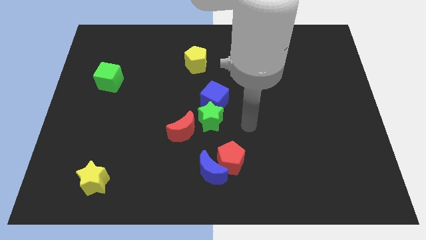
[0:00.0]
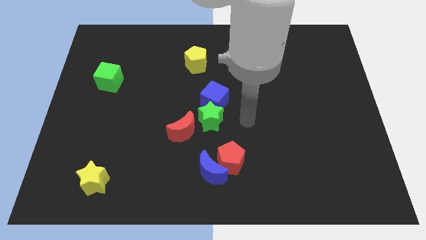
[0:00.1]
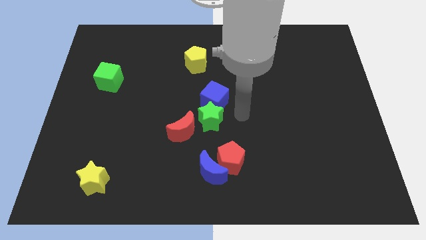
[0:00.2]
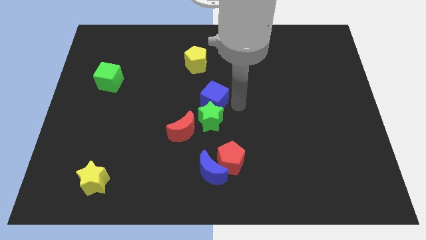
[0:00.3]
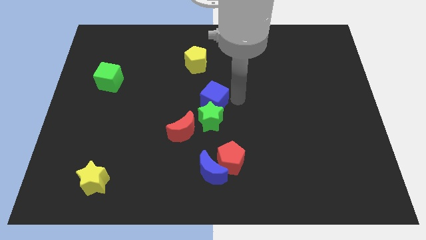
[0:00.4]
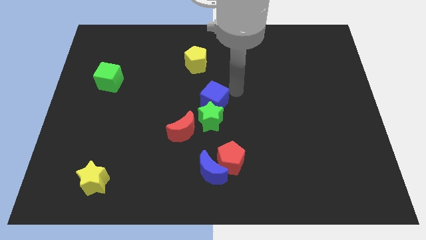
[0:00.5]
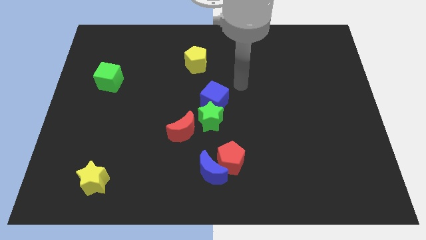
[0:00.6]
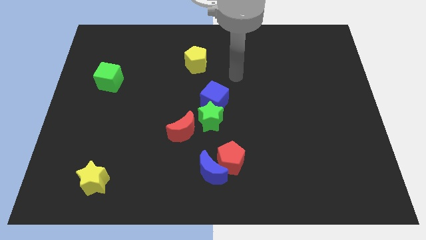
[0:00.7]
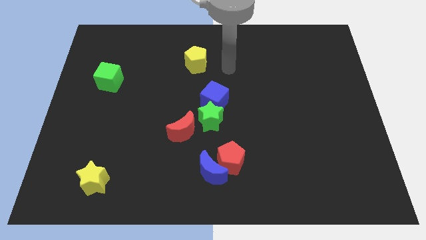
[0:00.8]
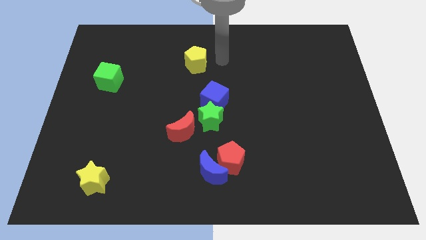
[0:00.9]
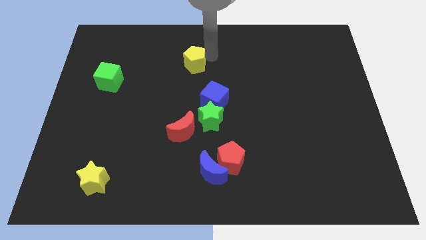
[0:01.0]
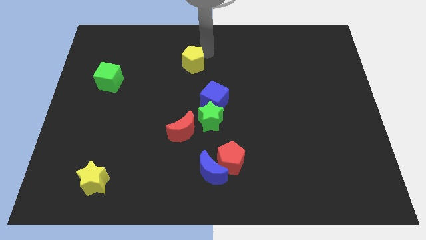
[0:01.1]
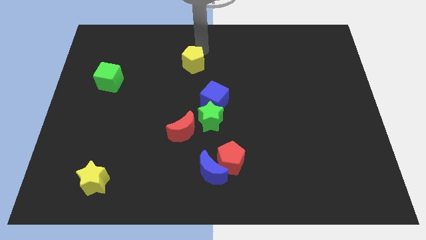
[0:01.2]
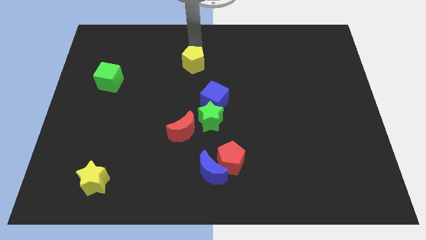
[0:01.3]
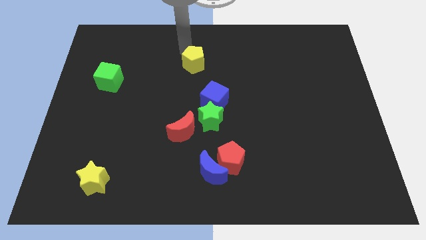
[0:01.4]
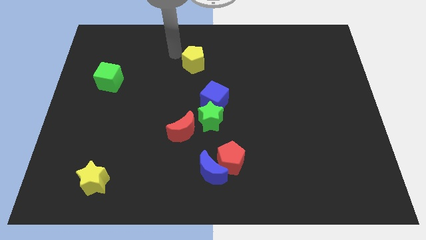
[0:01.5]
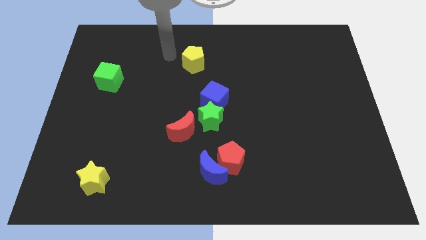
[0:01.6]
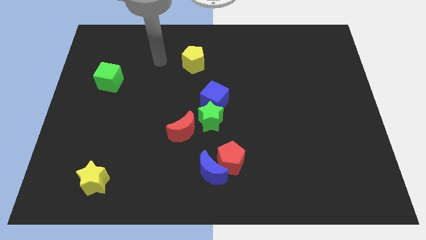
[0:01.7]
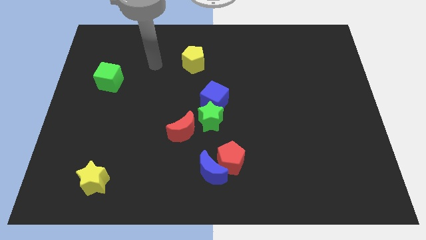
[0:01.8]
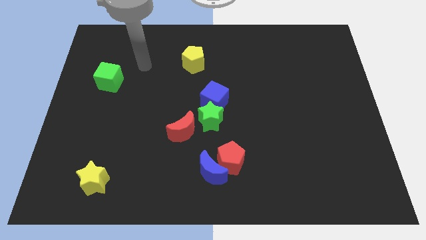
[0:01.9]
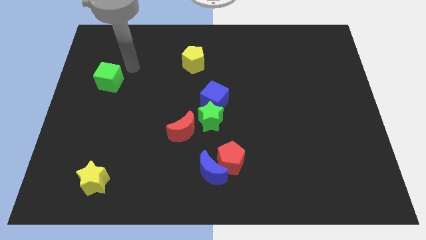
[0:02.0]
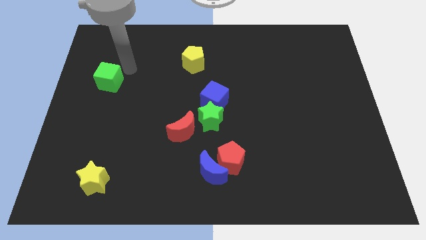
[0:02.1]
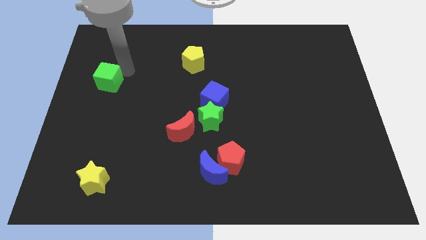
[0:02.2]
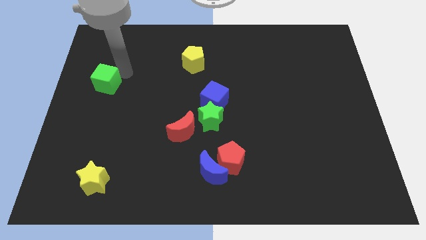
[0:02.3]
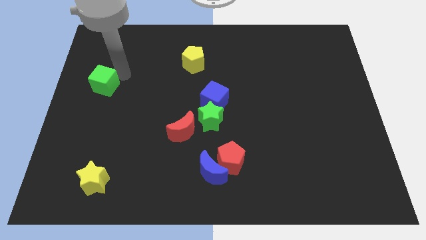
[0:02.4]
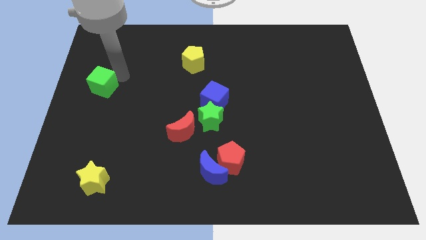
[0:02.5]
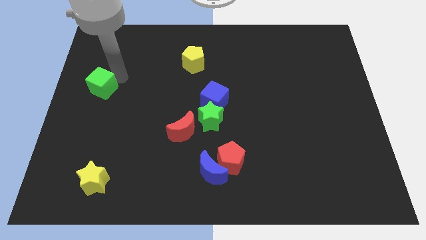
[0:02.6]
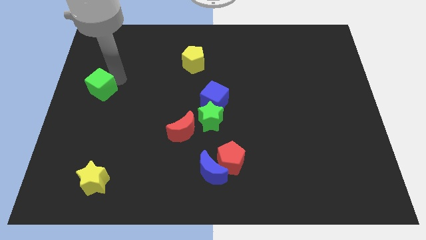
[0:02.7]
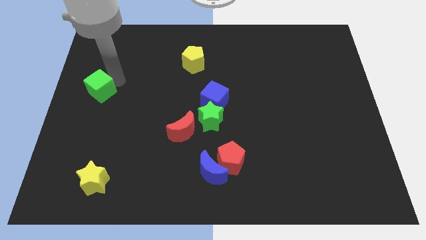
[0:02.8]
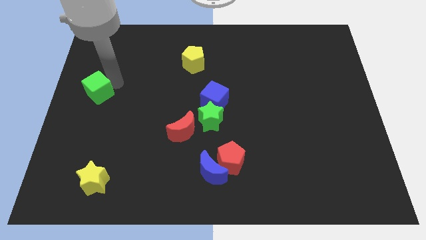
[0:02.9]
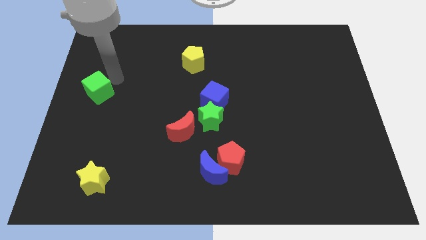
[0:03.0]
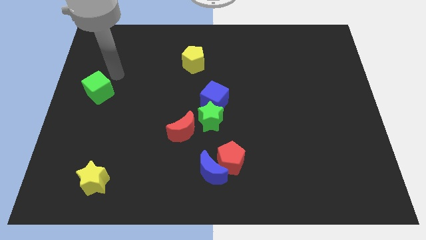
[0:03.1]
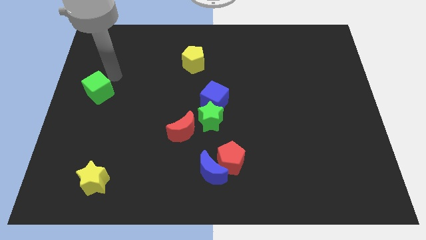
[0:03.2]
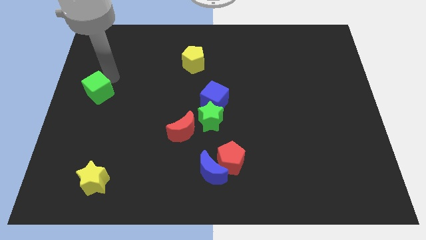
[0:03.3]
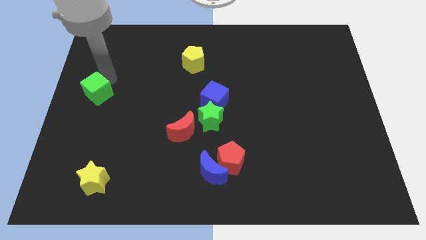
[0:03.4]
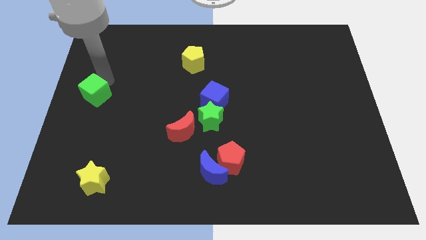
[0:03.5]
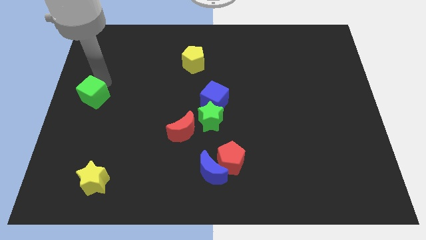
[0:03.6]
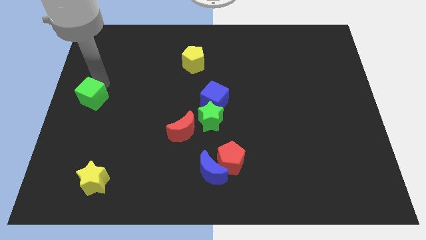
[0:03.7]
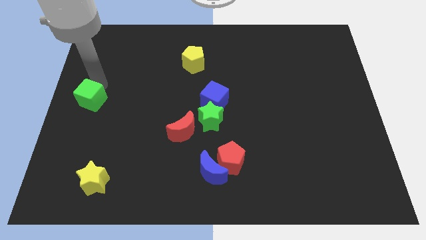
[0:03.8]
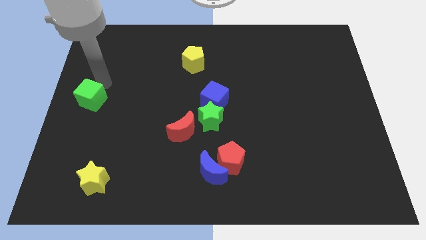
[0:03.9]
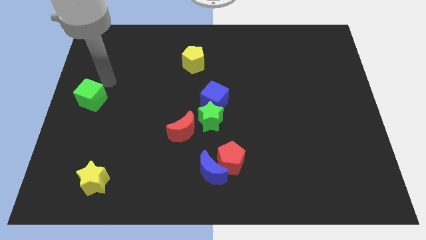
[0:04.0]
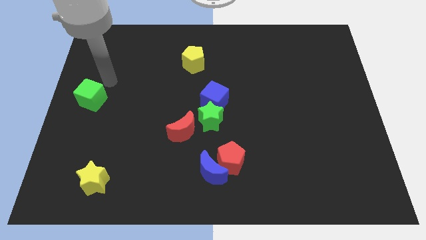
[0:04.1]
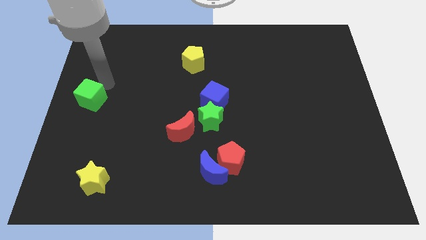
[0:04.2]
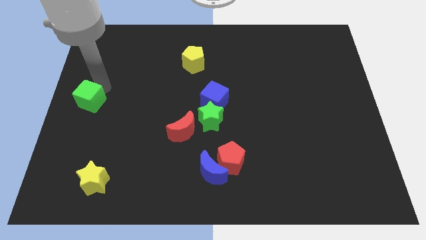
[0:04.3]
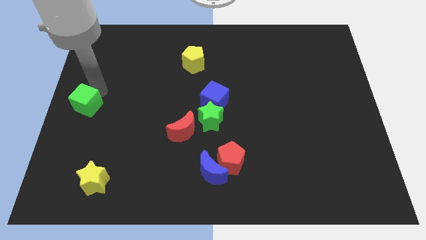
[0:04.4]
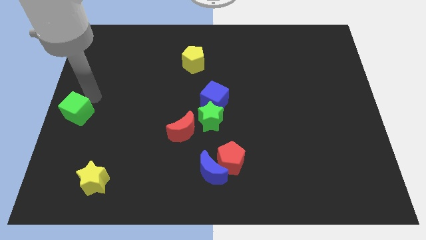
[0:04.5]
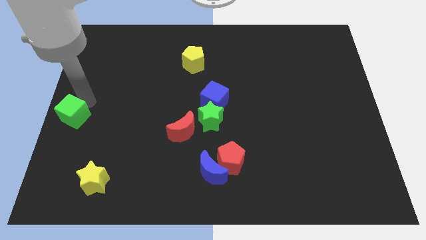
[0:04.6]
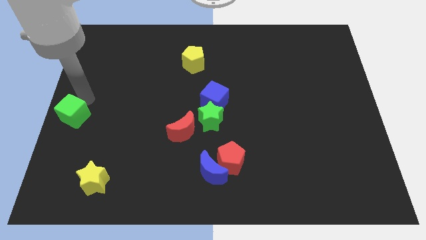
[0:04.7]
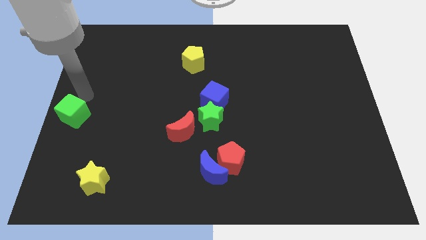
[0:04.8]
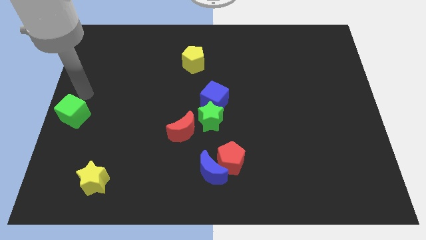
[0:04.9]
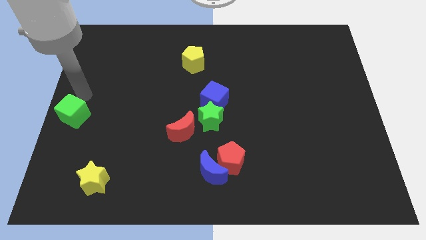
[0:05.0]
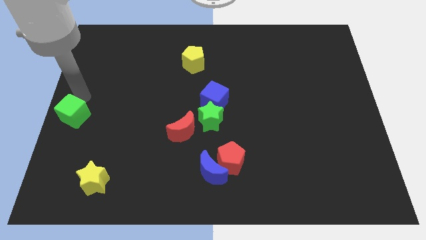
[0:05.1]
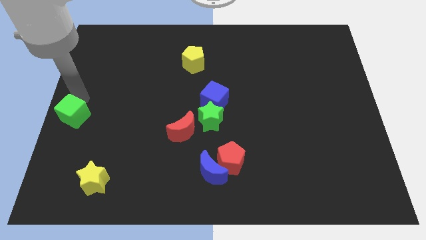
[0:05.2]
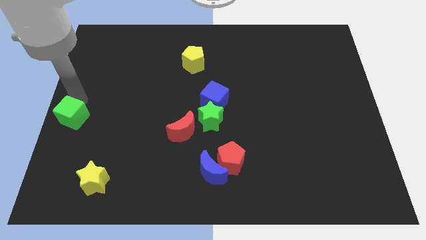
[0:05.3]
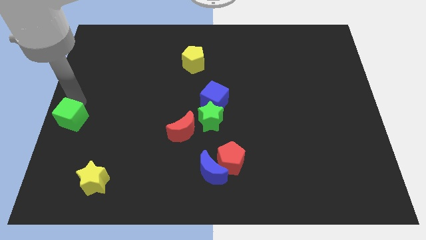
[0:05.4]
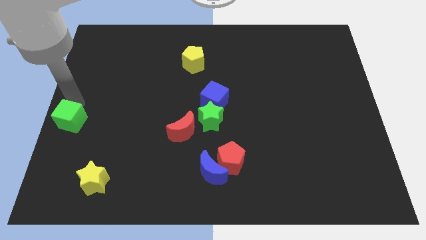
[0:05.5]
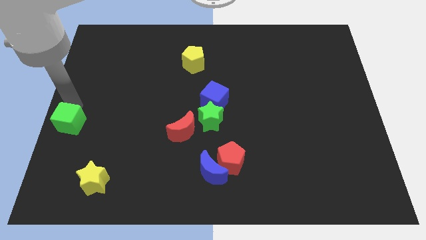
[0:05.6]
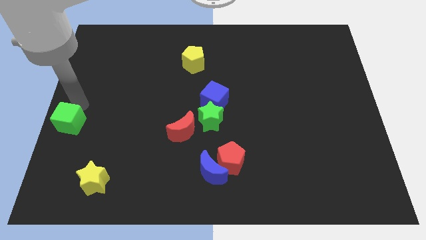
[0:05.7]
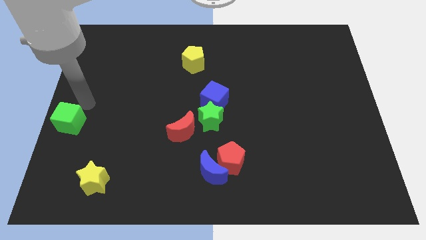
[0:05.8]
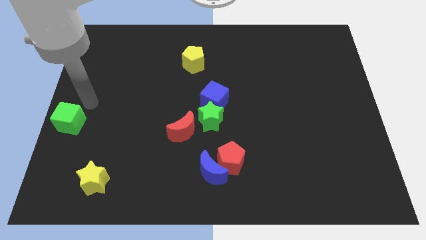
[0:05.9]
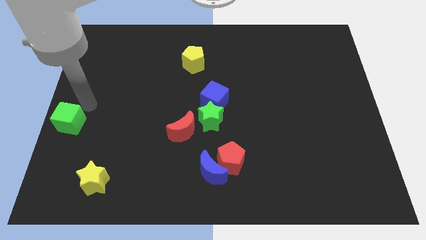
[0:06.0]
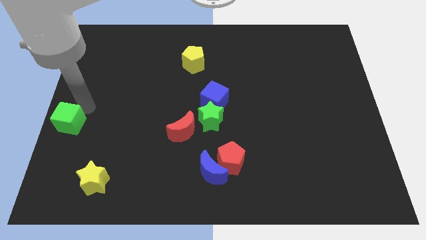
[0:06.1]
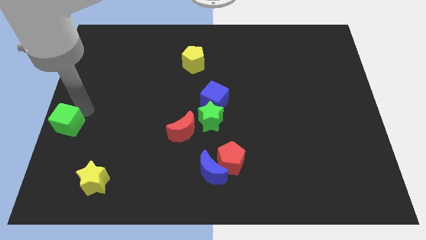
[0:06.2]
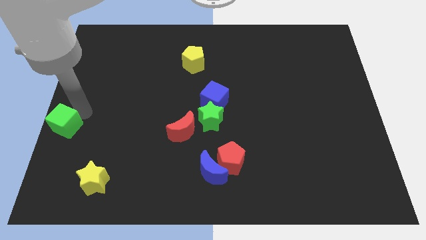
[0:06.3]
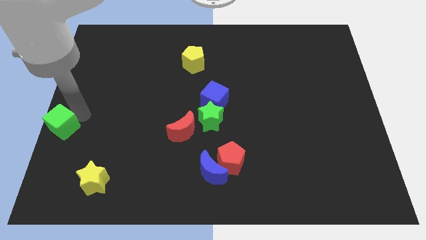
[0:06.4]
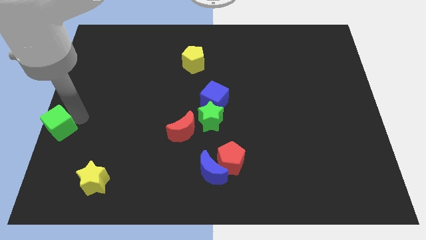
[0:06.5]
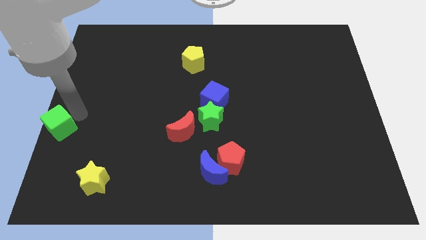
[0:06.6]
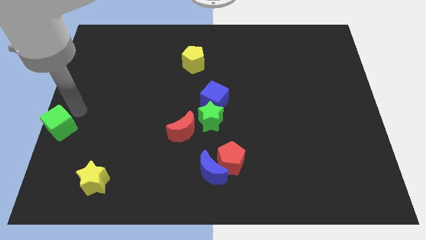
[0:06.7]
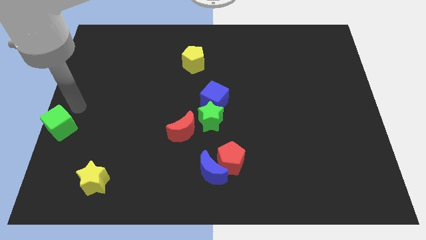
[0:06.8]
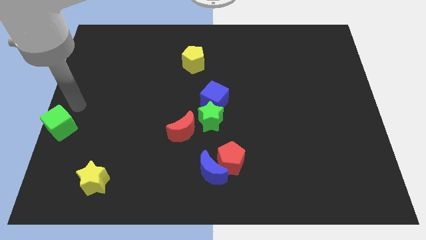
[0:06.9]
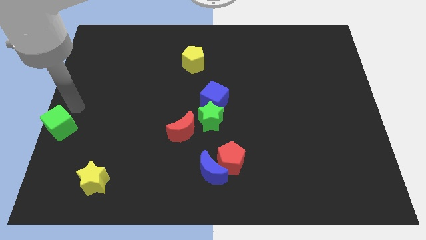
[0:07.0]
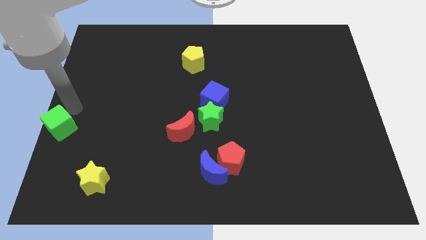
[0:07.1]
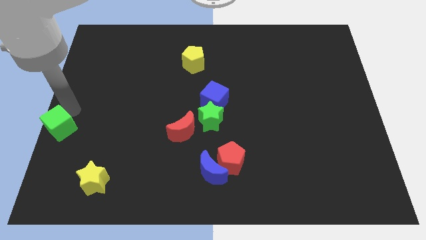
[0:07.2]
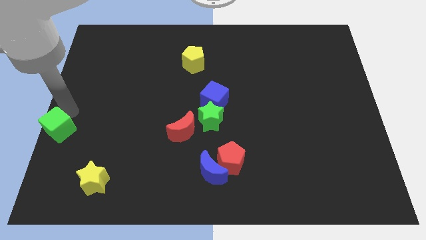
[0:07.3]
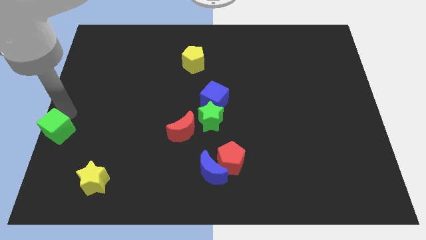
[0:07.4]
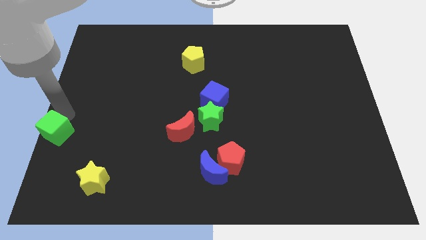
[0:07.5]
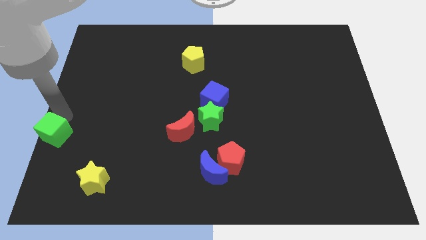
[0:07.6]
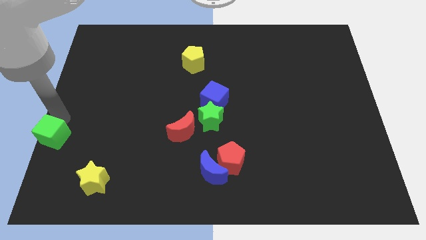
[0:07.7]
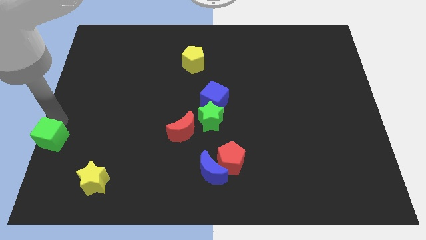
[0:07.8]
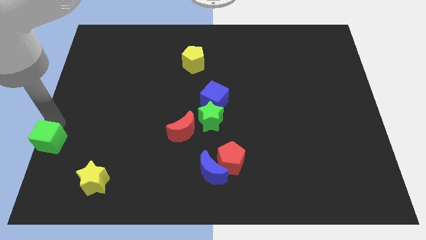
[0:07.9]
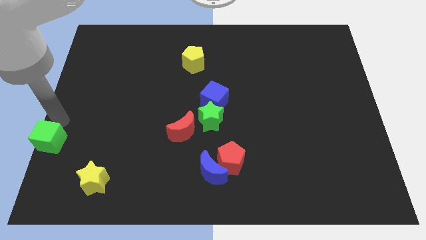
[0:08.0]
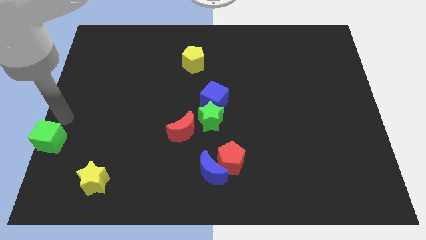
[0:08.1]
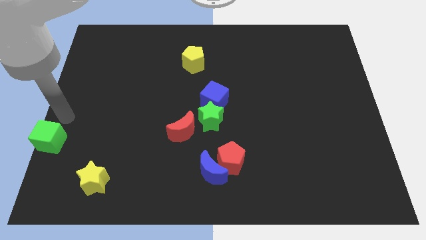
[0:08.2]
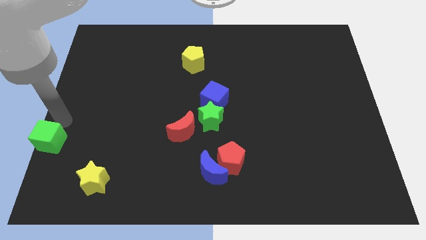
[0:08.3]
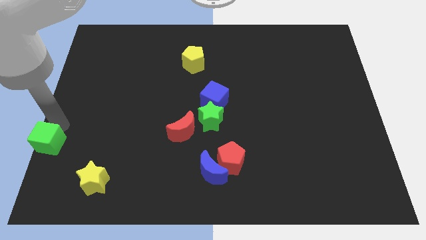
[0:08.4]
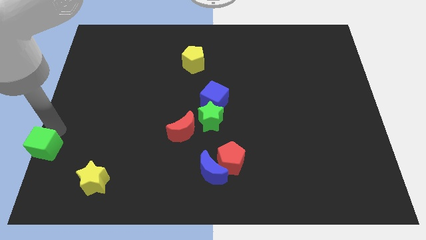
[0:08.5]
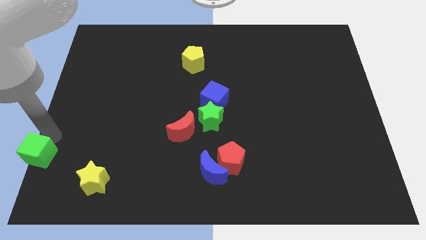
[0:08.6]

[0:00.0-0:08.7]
put the green cube to the bottom left of the board
